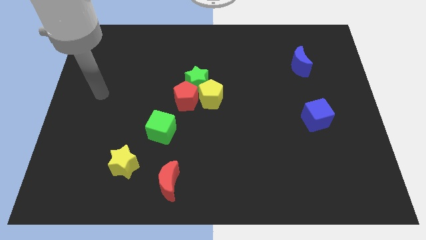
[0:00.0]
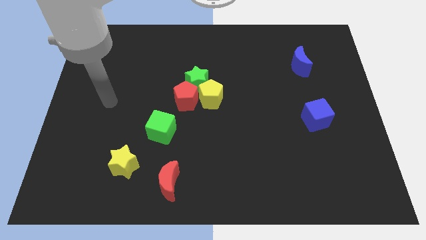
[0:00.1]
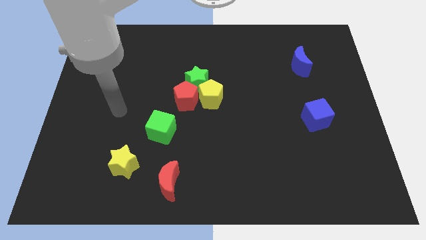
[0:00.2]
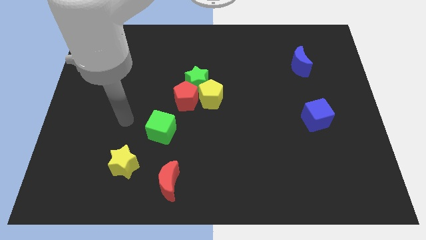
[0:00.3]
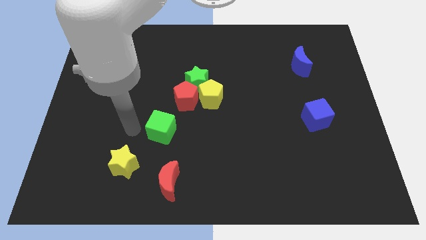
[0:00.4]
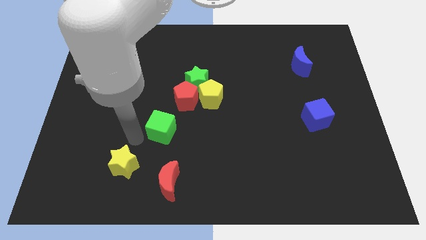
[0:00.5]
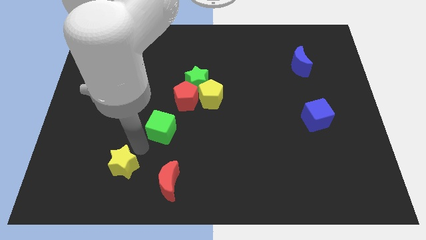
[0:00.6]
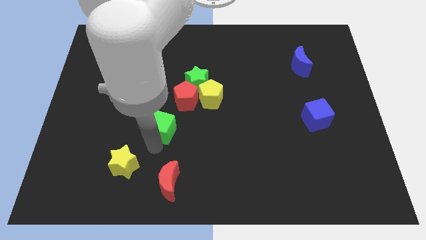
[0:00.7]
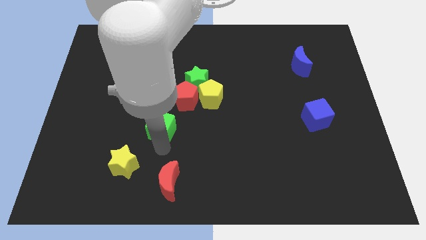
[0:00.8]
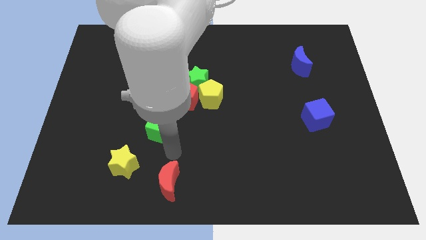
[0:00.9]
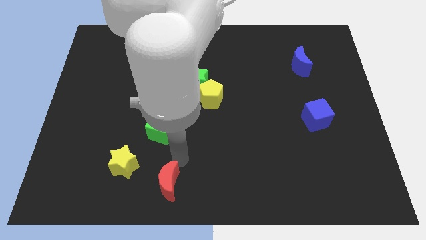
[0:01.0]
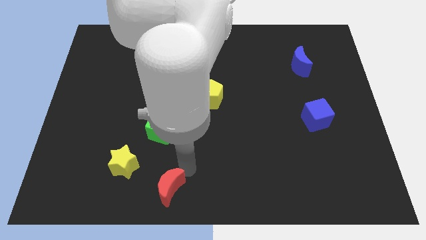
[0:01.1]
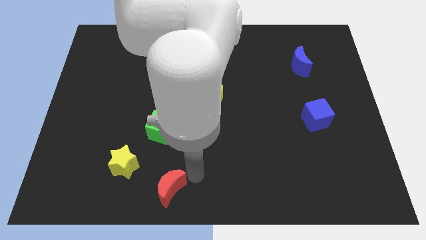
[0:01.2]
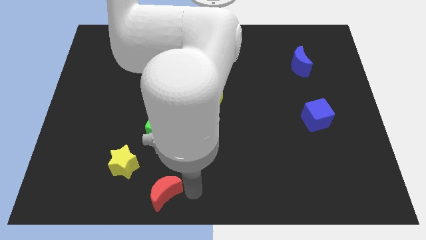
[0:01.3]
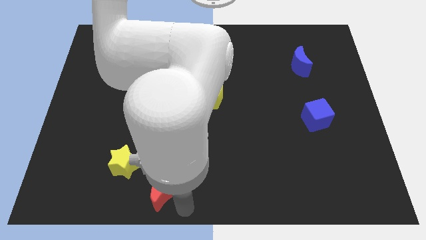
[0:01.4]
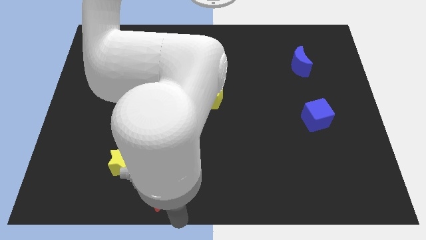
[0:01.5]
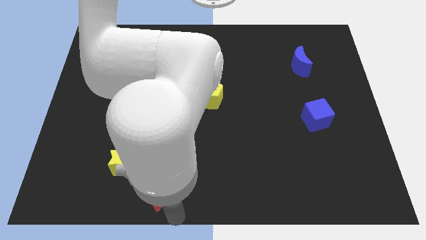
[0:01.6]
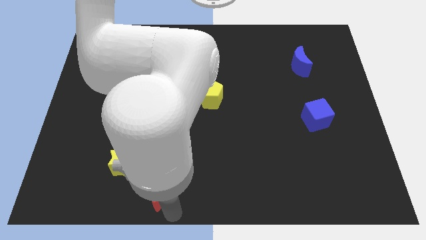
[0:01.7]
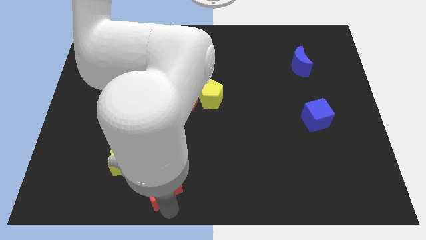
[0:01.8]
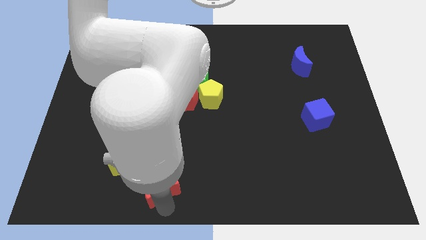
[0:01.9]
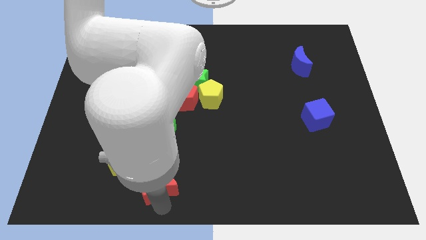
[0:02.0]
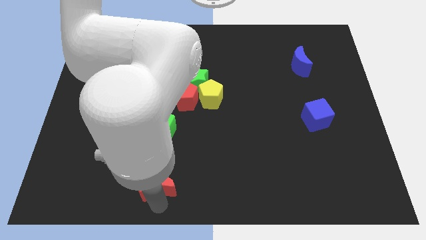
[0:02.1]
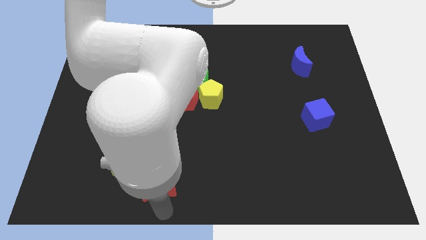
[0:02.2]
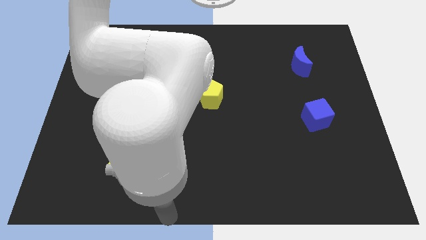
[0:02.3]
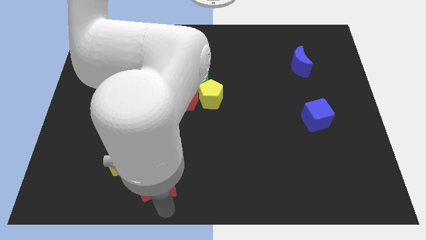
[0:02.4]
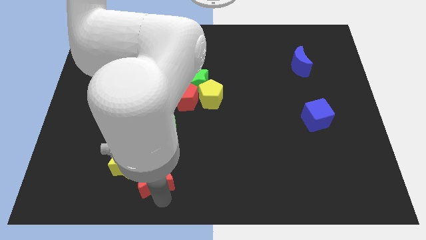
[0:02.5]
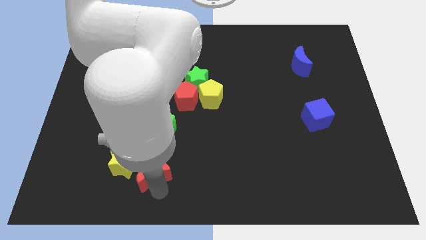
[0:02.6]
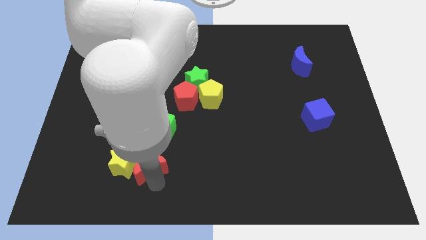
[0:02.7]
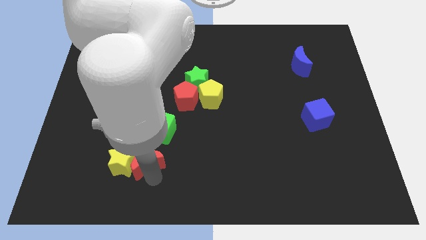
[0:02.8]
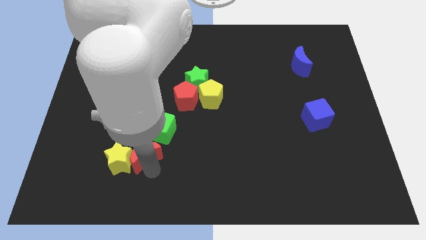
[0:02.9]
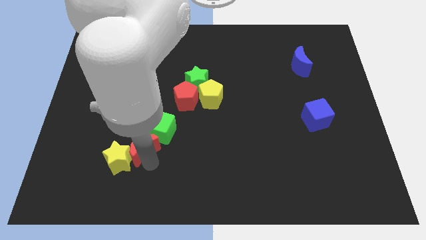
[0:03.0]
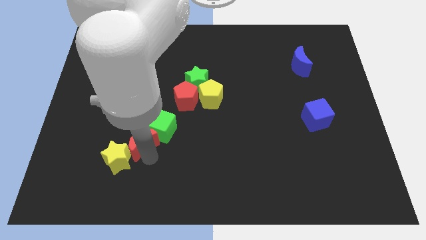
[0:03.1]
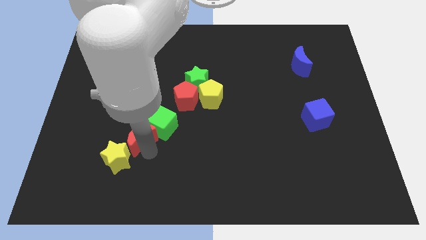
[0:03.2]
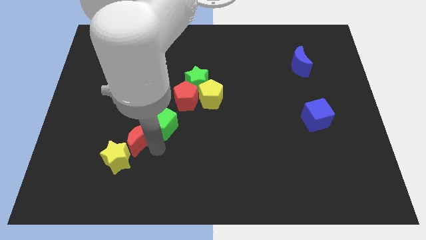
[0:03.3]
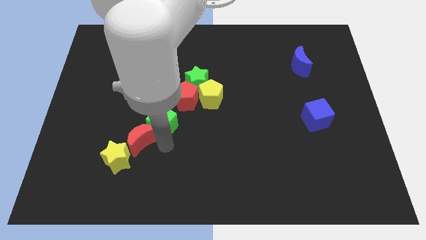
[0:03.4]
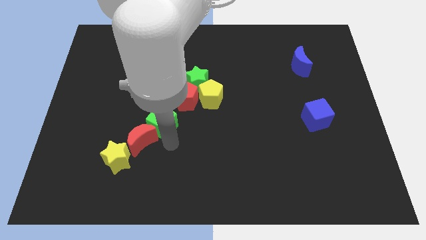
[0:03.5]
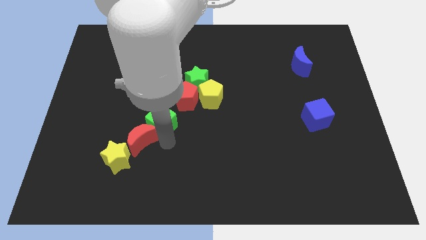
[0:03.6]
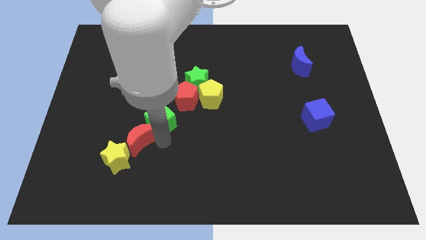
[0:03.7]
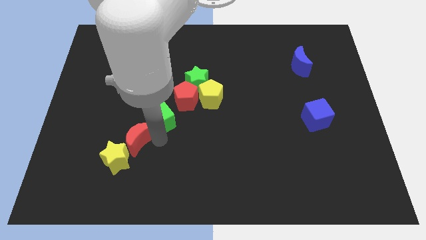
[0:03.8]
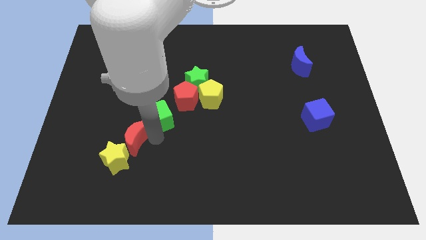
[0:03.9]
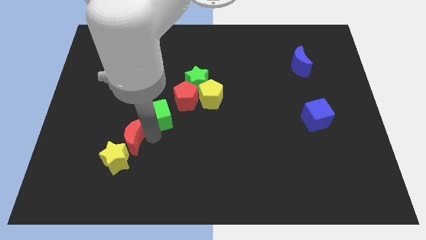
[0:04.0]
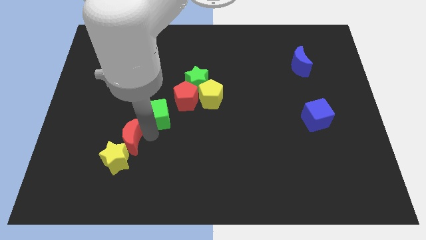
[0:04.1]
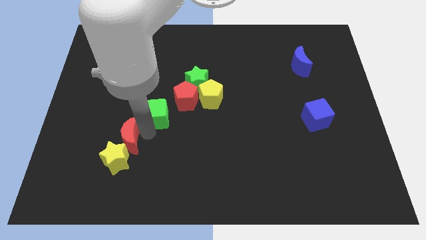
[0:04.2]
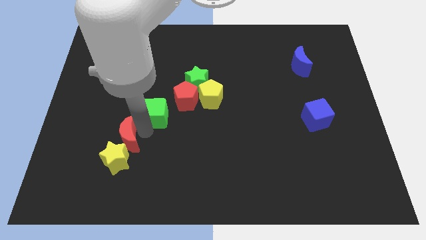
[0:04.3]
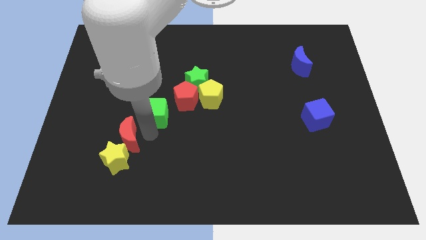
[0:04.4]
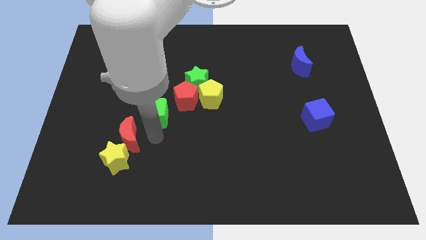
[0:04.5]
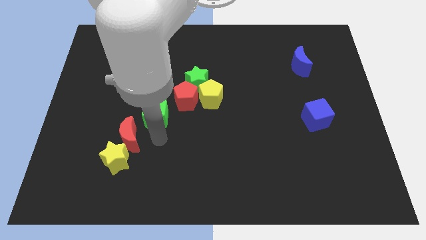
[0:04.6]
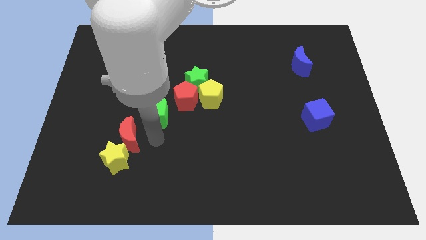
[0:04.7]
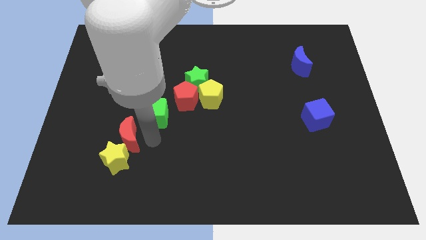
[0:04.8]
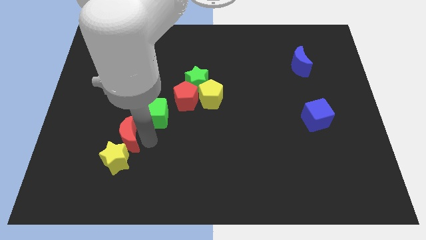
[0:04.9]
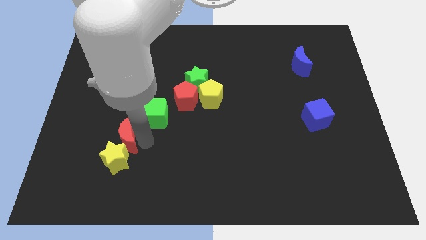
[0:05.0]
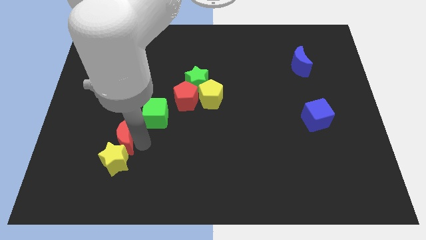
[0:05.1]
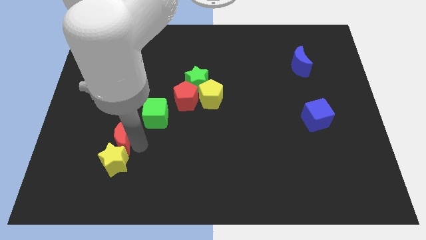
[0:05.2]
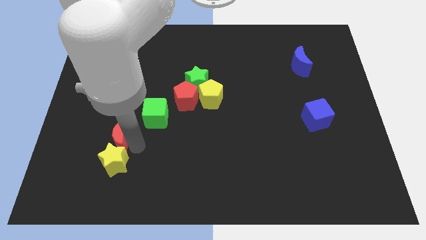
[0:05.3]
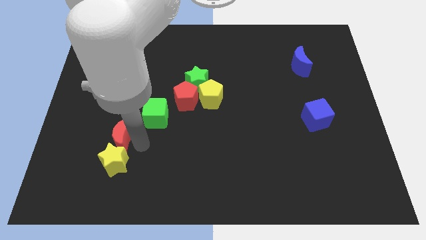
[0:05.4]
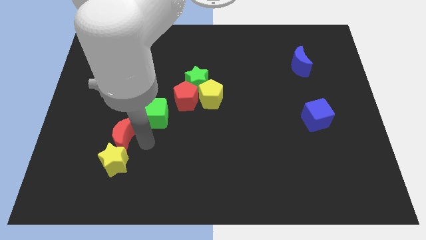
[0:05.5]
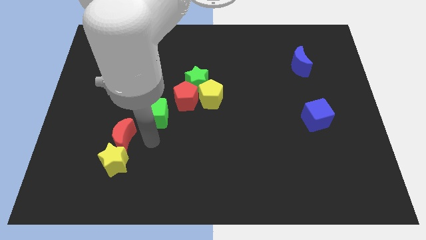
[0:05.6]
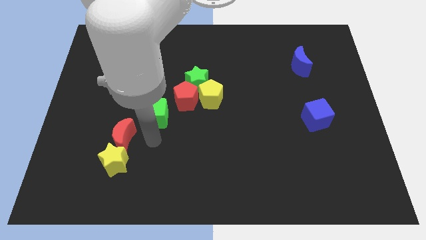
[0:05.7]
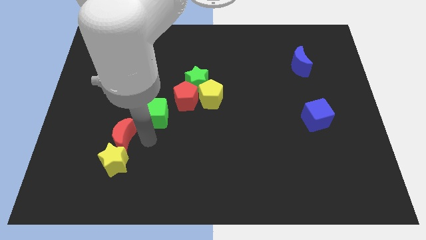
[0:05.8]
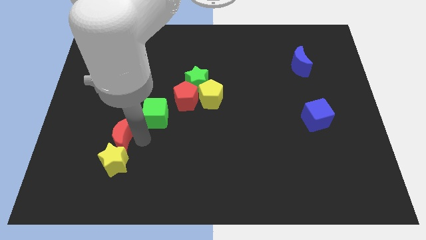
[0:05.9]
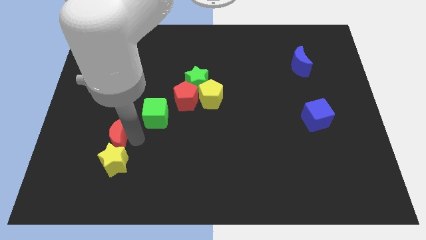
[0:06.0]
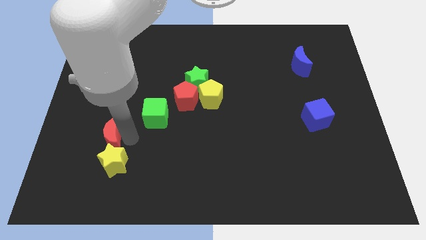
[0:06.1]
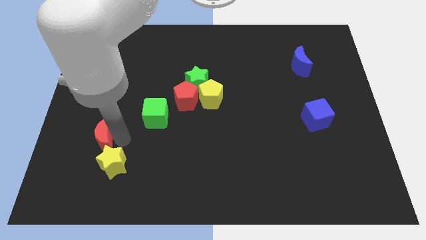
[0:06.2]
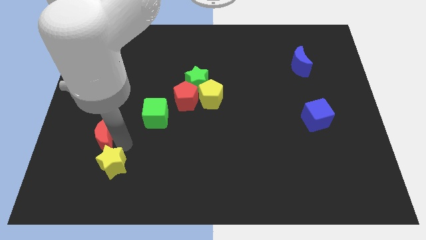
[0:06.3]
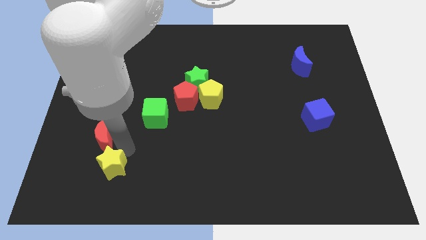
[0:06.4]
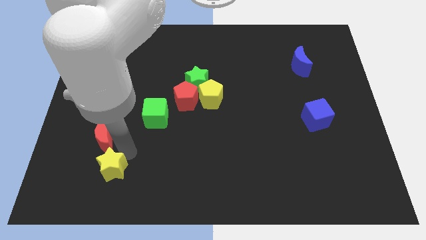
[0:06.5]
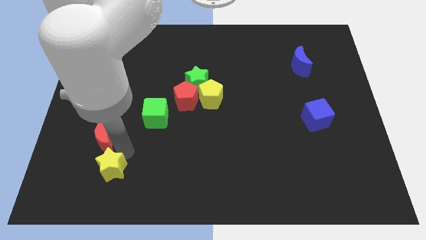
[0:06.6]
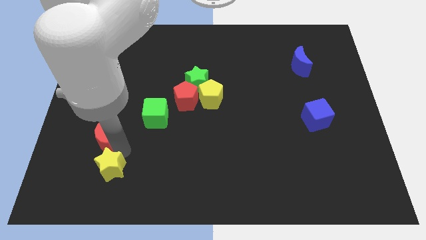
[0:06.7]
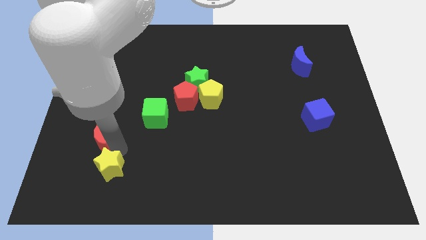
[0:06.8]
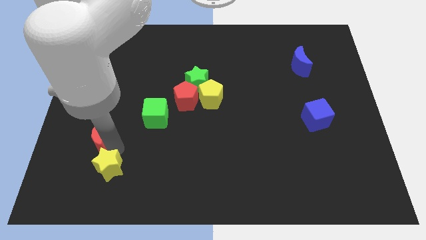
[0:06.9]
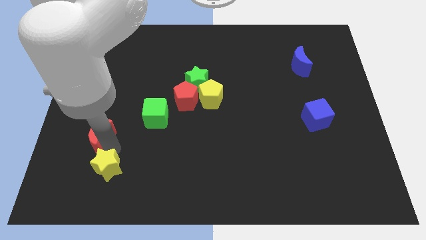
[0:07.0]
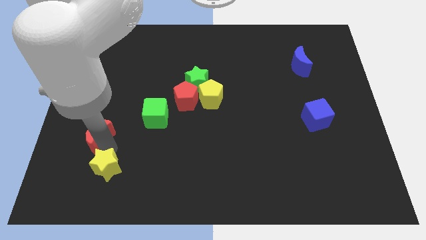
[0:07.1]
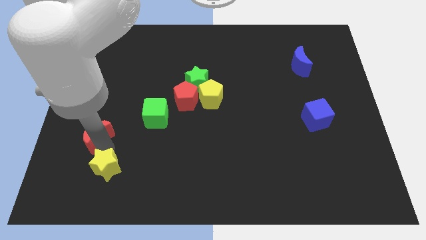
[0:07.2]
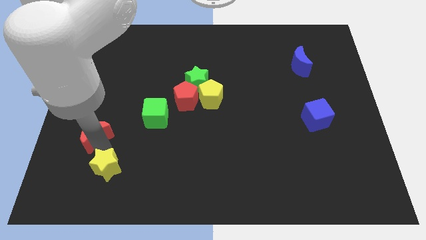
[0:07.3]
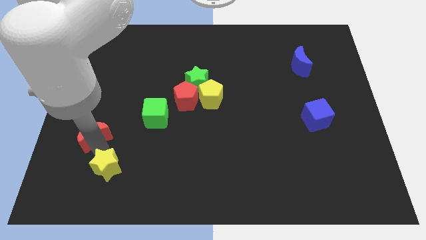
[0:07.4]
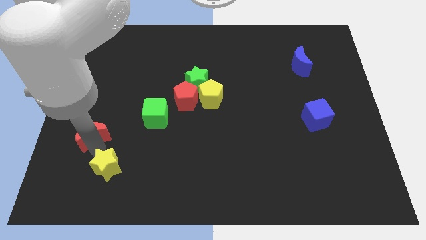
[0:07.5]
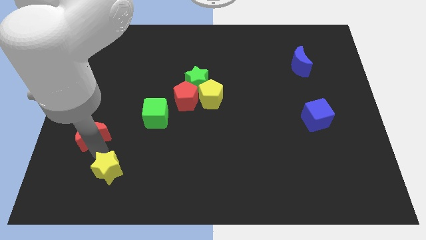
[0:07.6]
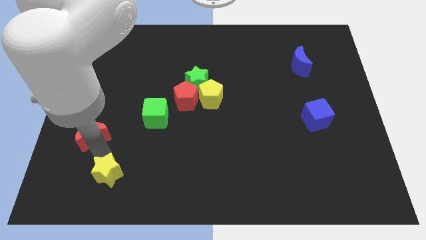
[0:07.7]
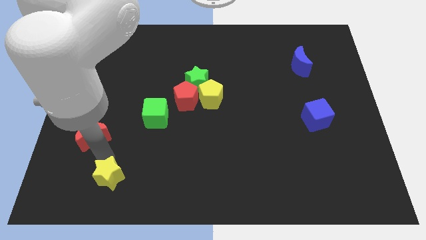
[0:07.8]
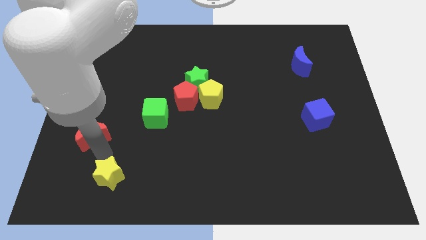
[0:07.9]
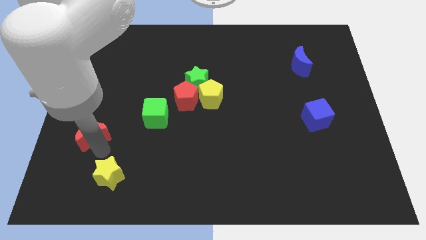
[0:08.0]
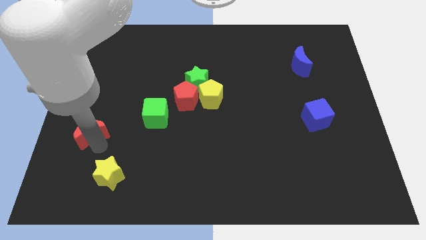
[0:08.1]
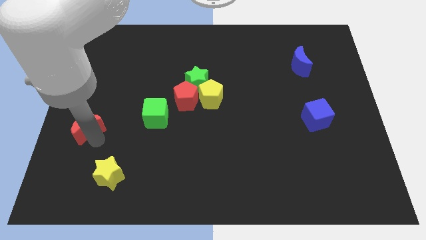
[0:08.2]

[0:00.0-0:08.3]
push the red moon to the left side
